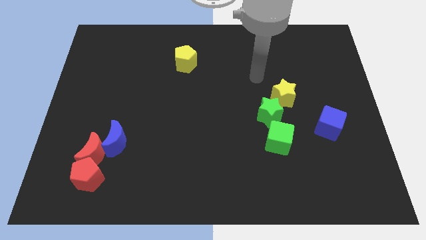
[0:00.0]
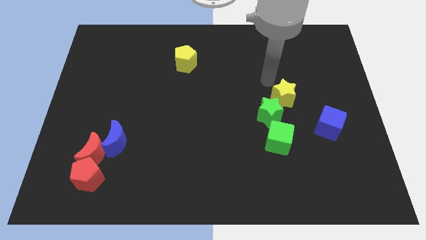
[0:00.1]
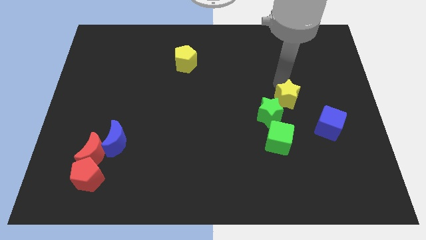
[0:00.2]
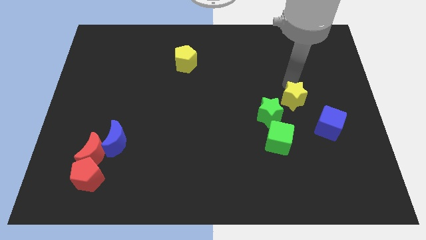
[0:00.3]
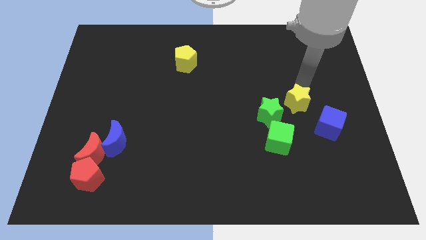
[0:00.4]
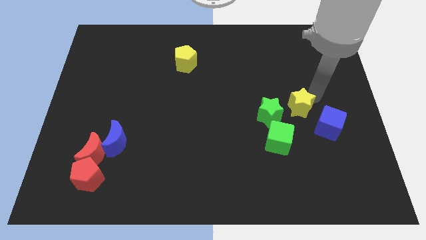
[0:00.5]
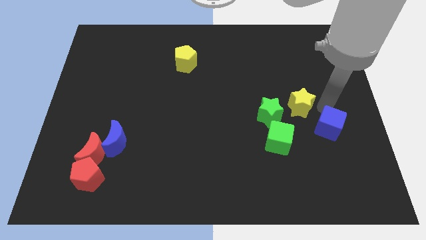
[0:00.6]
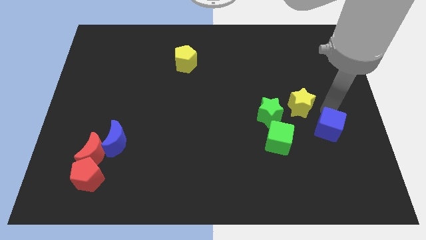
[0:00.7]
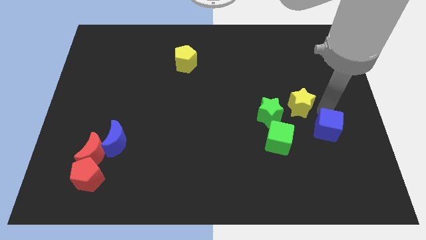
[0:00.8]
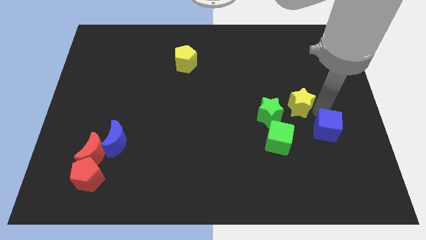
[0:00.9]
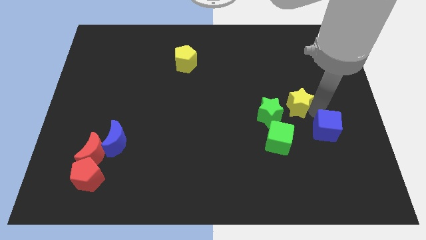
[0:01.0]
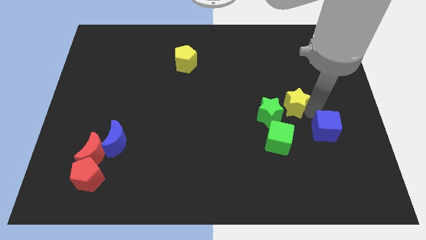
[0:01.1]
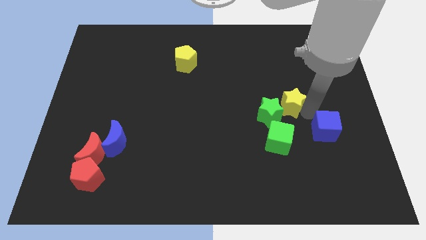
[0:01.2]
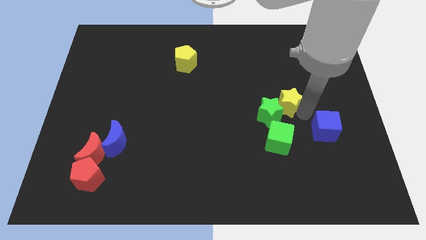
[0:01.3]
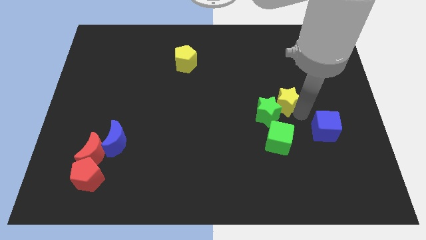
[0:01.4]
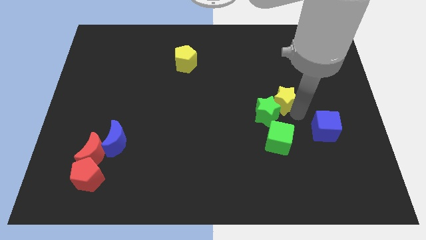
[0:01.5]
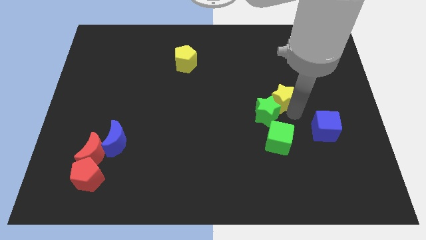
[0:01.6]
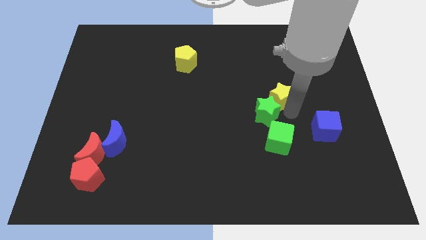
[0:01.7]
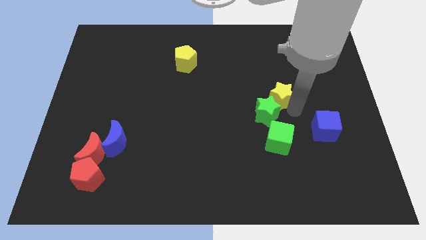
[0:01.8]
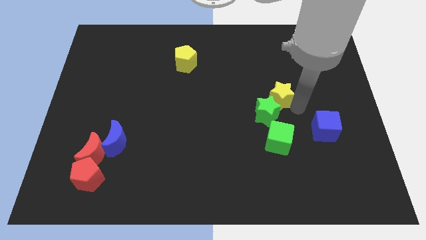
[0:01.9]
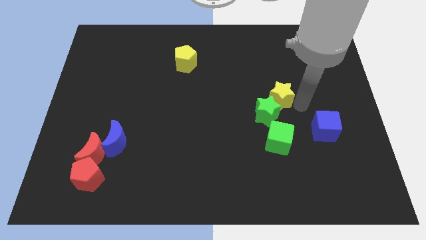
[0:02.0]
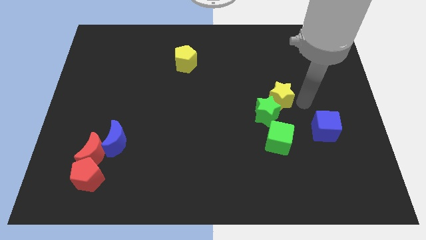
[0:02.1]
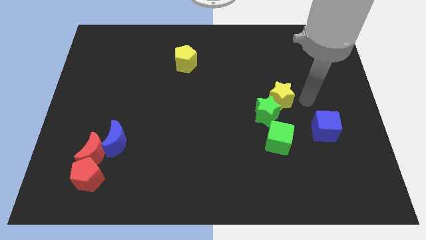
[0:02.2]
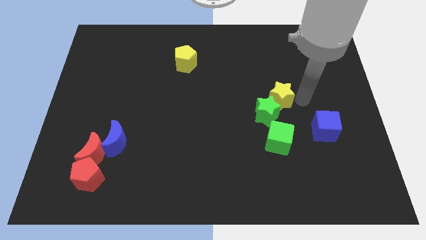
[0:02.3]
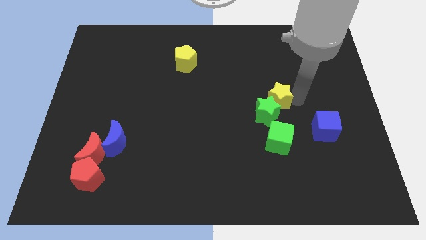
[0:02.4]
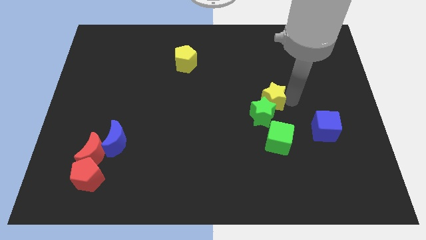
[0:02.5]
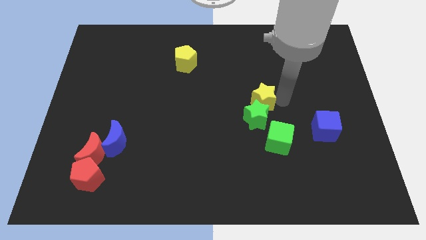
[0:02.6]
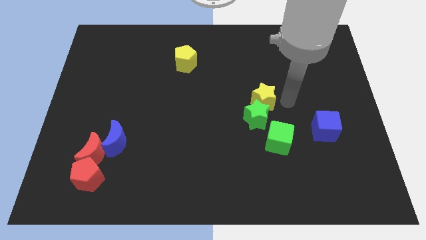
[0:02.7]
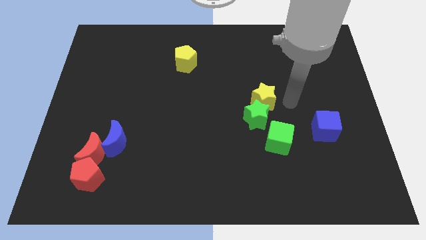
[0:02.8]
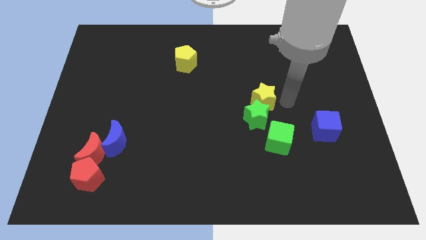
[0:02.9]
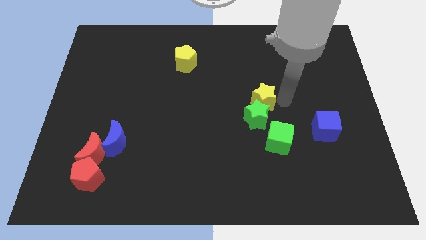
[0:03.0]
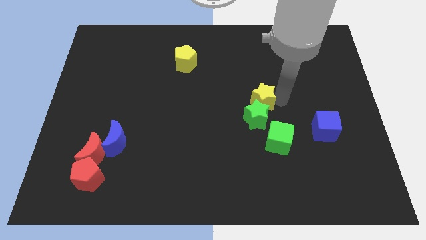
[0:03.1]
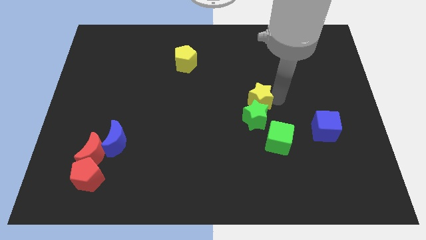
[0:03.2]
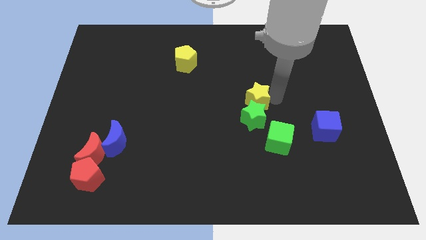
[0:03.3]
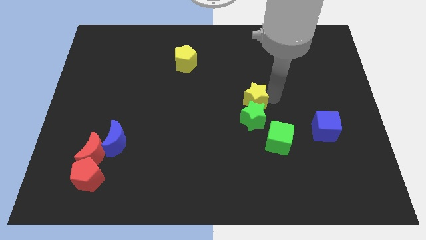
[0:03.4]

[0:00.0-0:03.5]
push the yellow star to the left a little

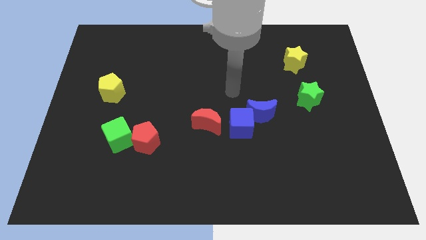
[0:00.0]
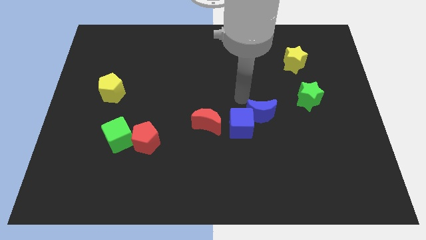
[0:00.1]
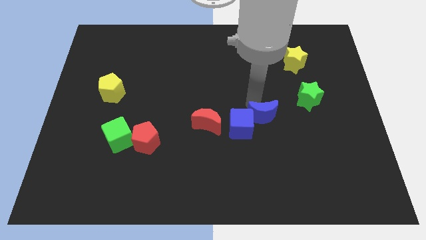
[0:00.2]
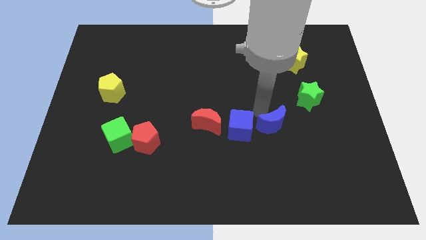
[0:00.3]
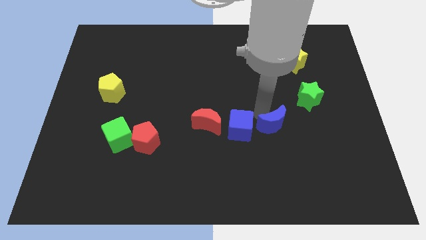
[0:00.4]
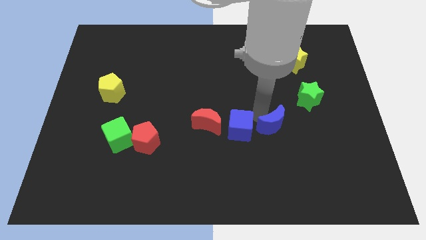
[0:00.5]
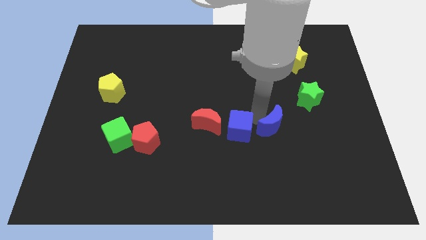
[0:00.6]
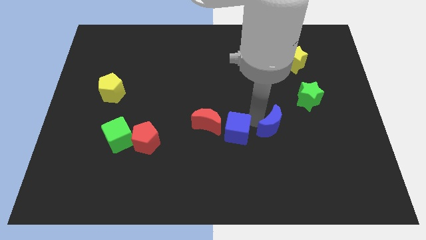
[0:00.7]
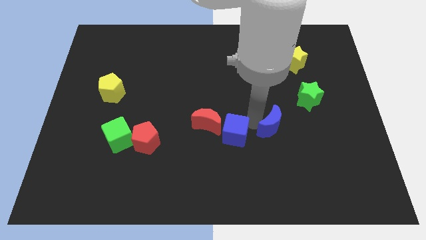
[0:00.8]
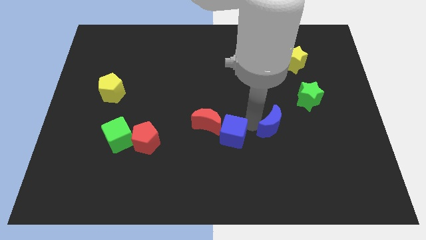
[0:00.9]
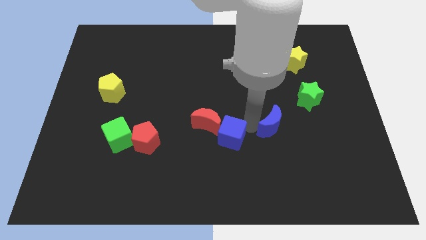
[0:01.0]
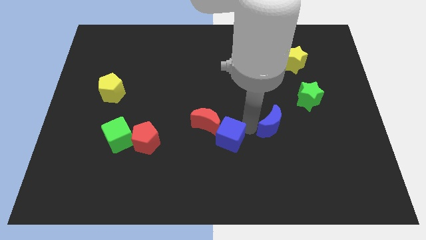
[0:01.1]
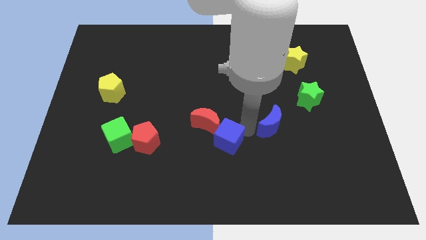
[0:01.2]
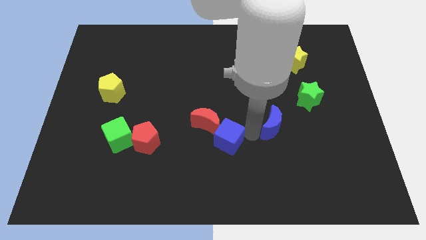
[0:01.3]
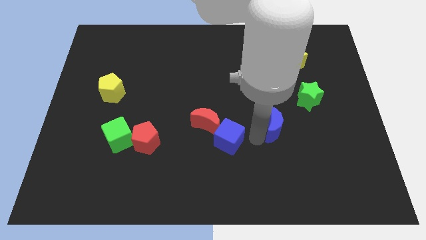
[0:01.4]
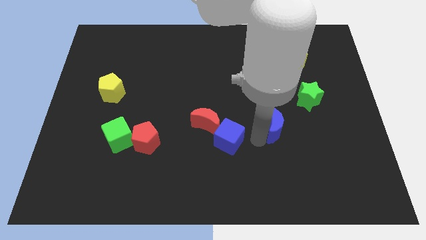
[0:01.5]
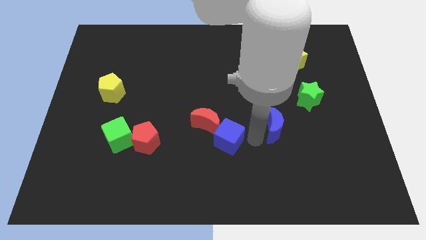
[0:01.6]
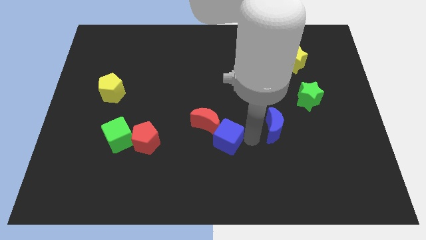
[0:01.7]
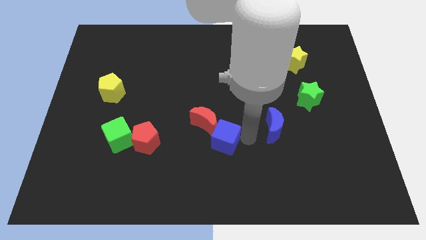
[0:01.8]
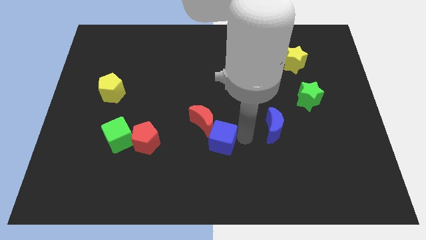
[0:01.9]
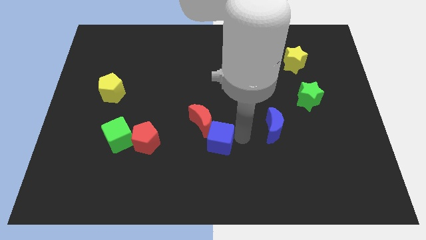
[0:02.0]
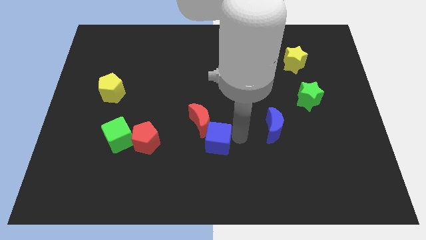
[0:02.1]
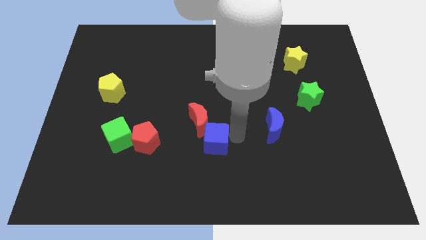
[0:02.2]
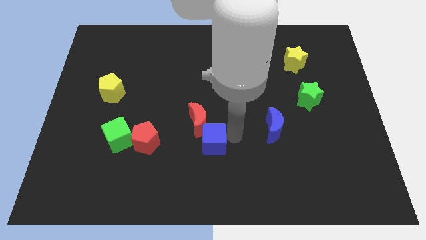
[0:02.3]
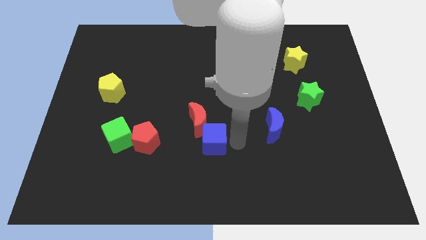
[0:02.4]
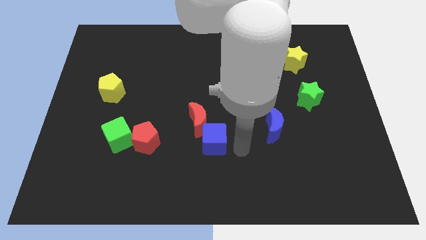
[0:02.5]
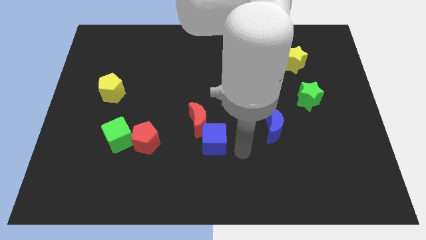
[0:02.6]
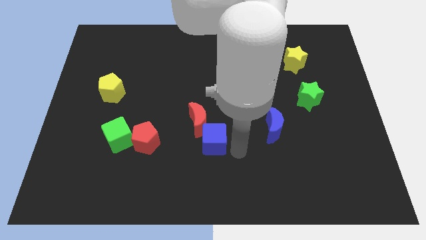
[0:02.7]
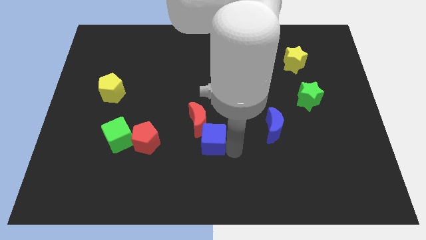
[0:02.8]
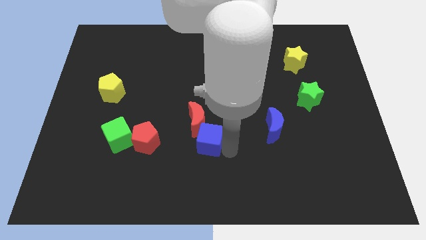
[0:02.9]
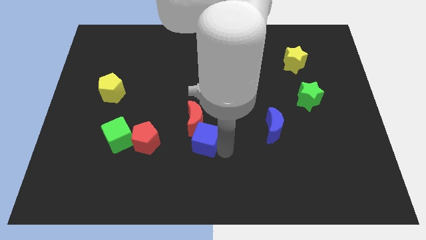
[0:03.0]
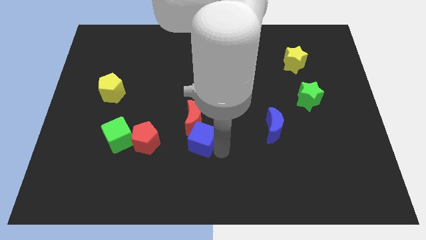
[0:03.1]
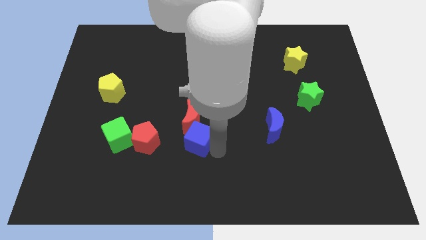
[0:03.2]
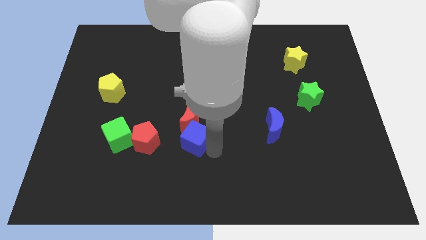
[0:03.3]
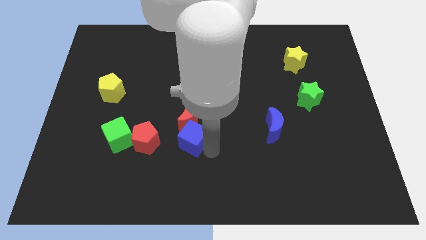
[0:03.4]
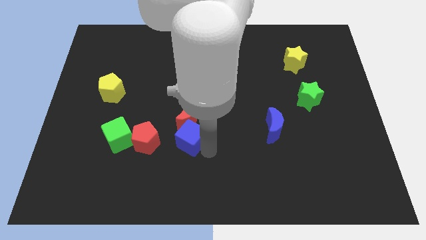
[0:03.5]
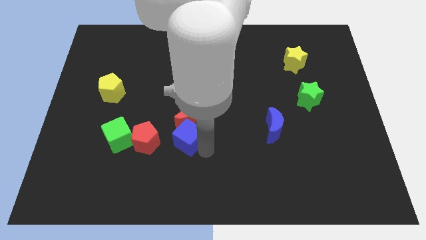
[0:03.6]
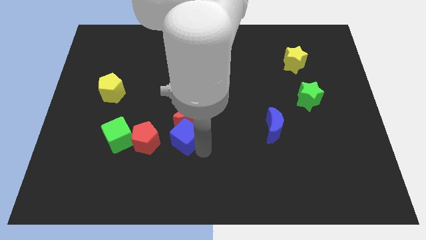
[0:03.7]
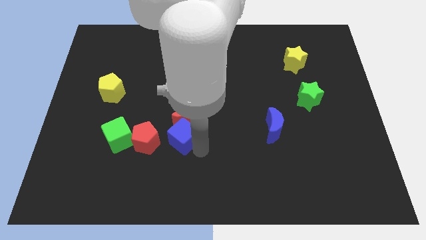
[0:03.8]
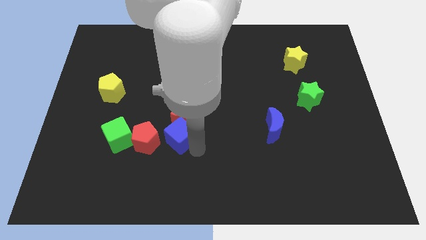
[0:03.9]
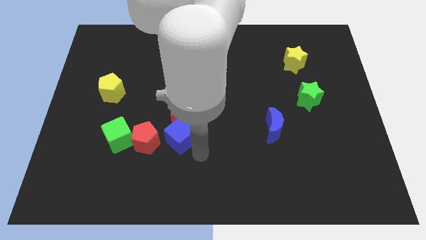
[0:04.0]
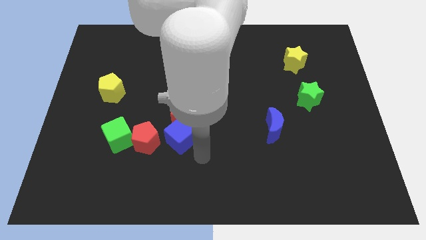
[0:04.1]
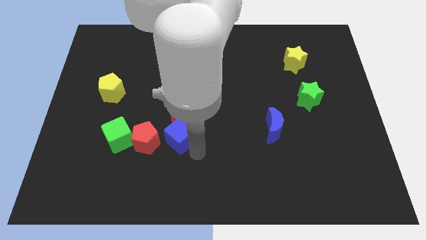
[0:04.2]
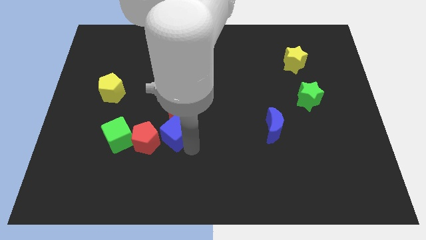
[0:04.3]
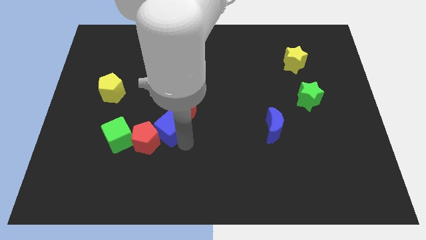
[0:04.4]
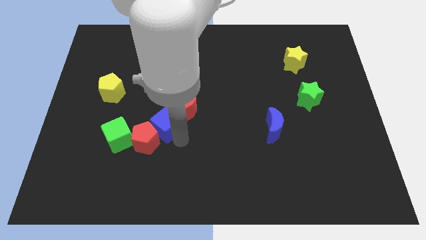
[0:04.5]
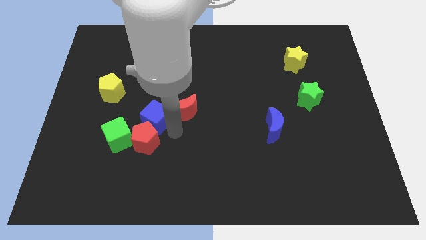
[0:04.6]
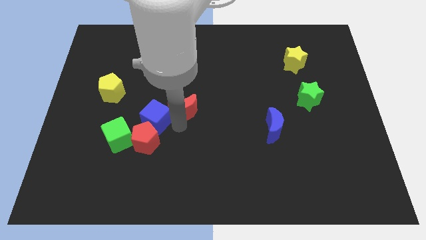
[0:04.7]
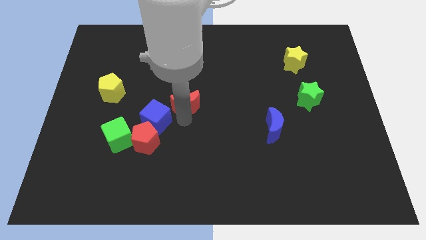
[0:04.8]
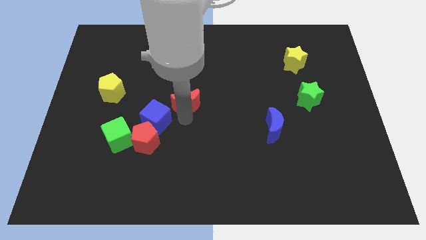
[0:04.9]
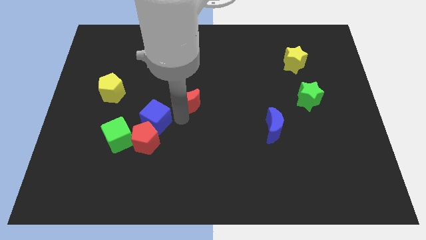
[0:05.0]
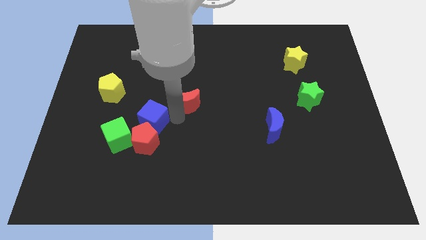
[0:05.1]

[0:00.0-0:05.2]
push the blue cube left
